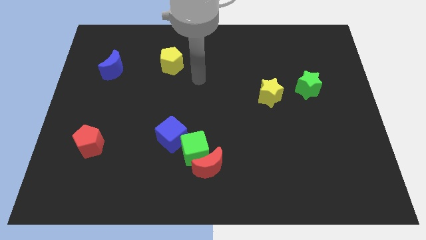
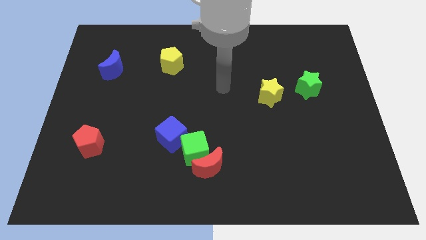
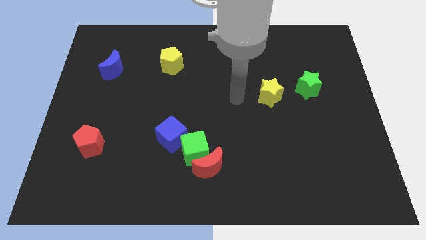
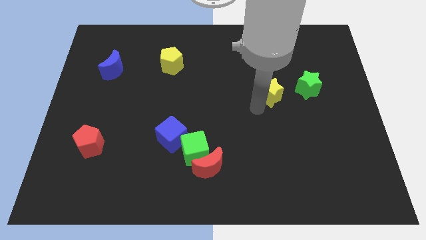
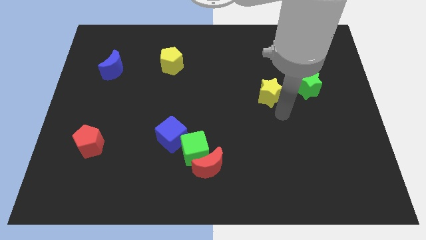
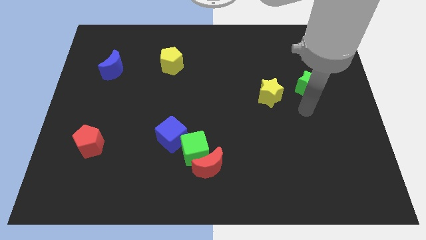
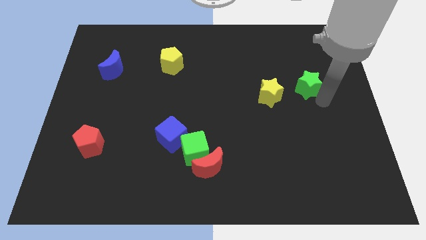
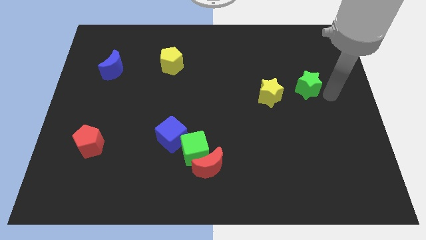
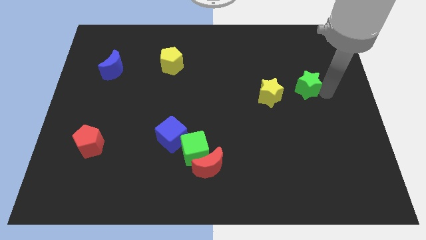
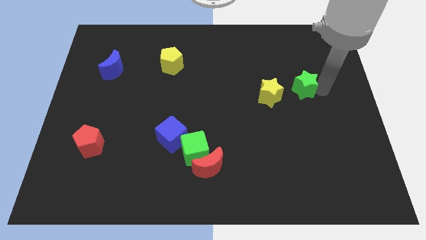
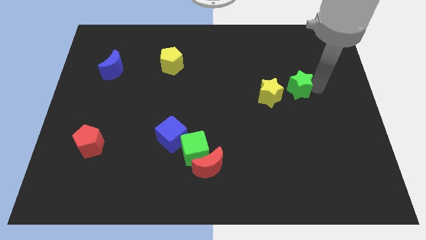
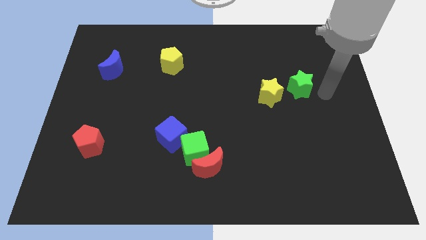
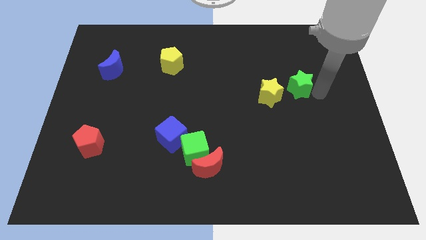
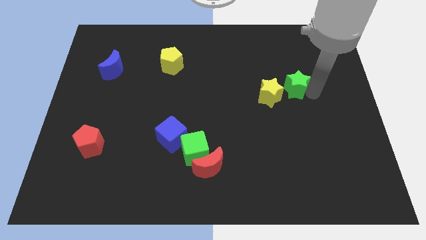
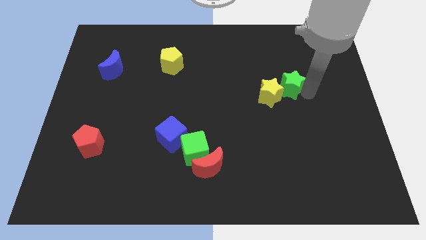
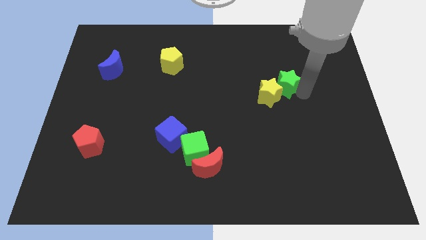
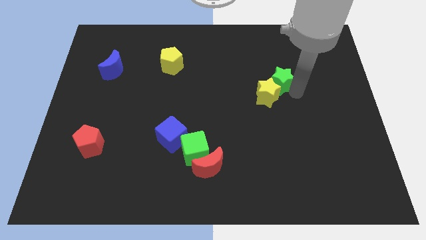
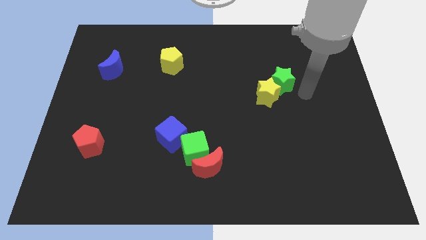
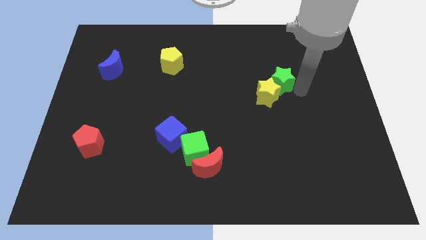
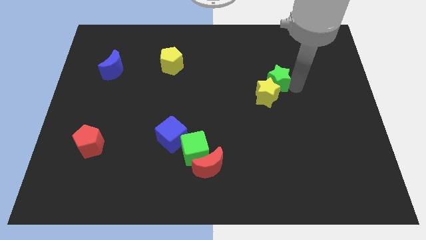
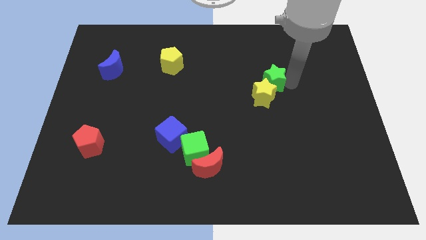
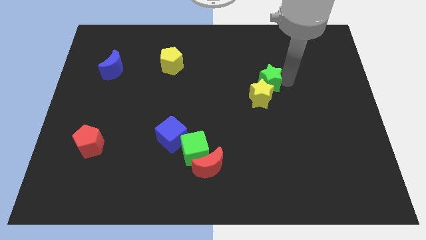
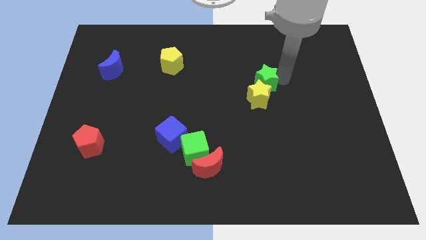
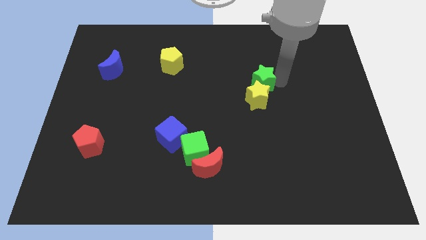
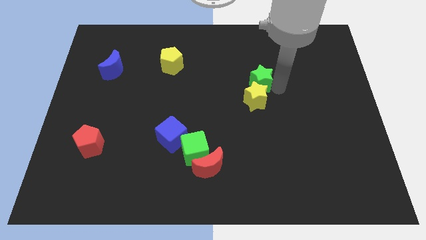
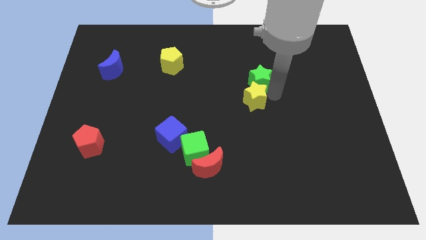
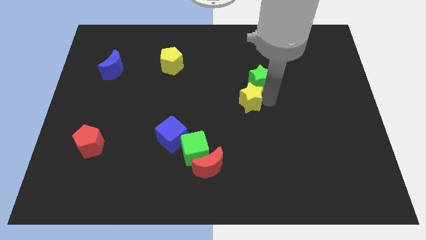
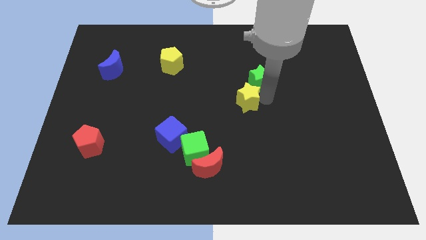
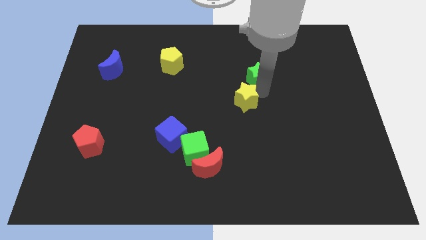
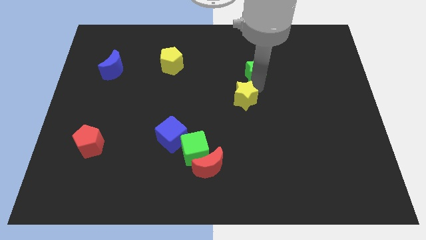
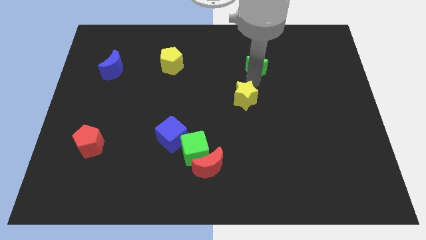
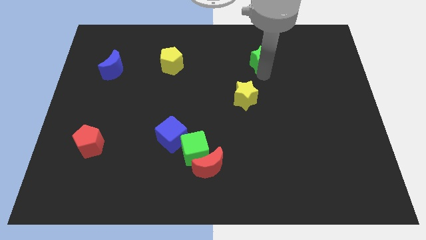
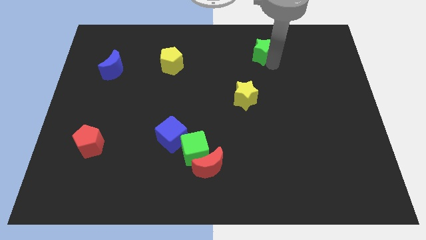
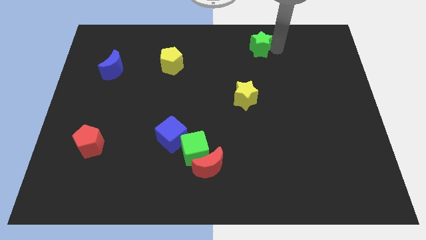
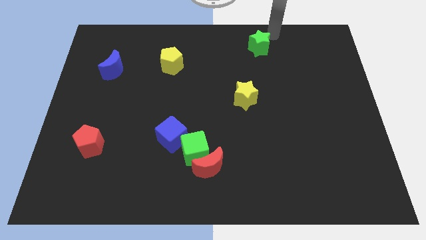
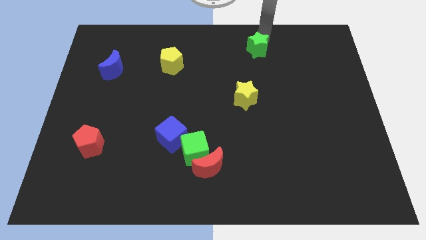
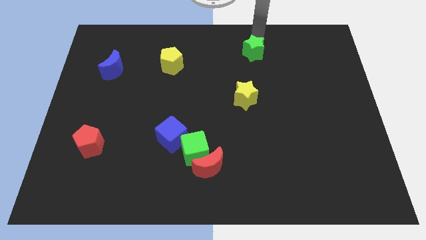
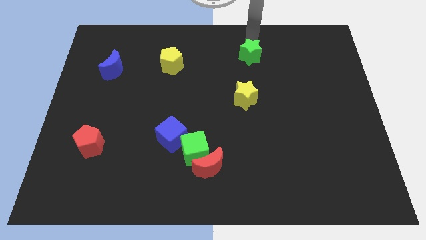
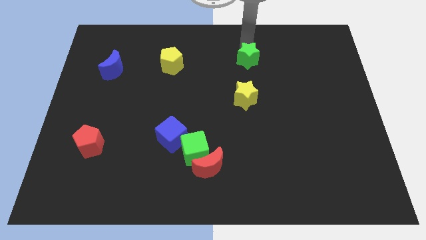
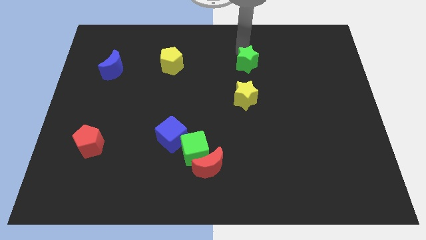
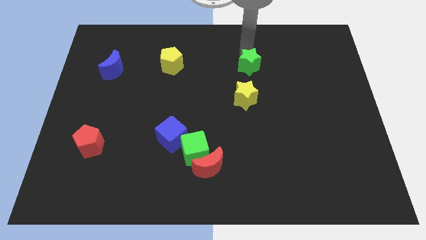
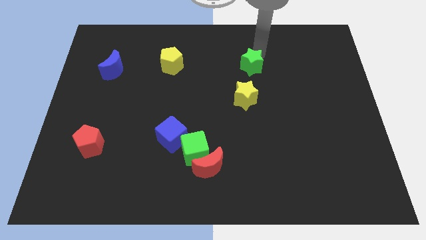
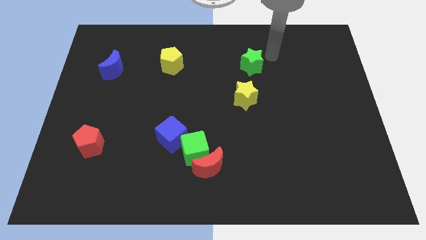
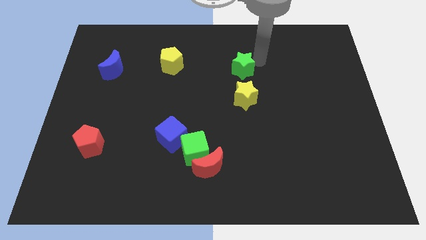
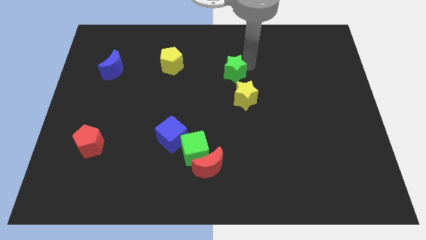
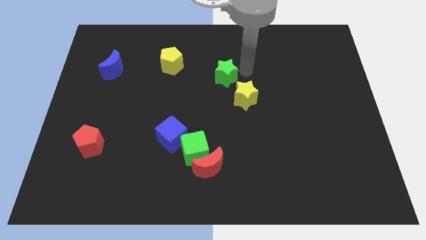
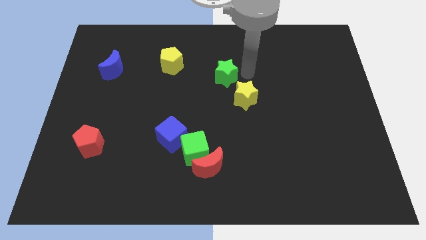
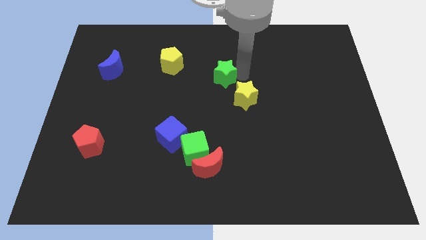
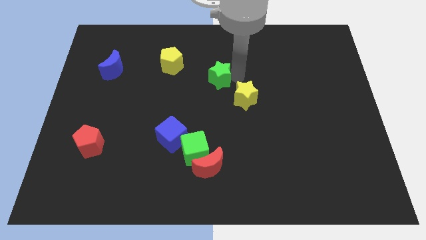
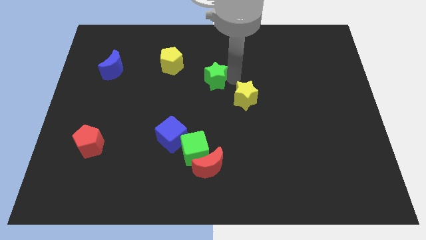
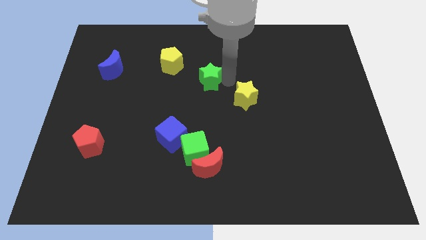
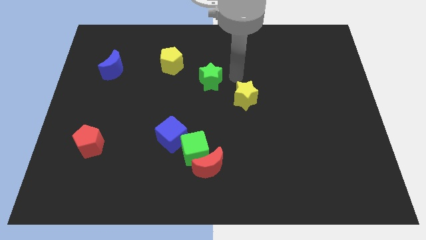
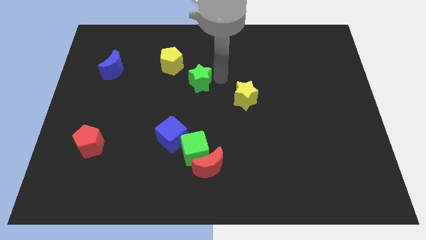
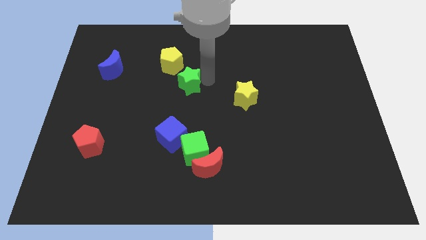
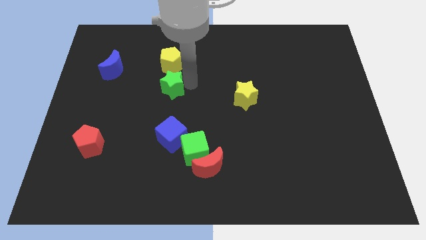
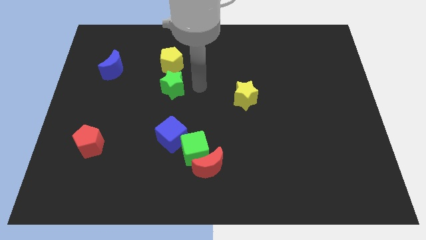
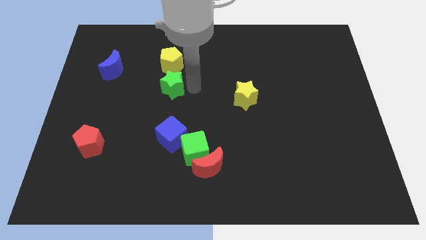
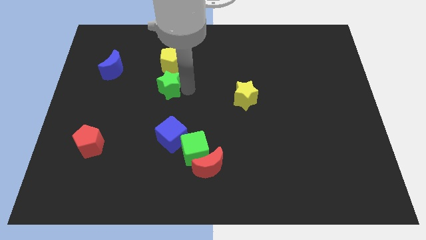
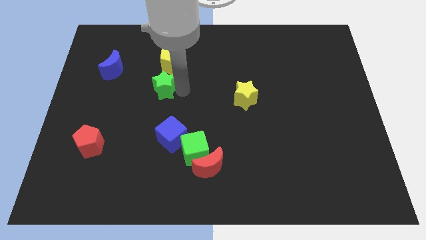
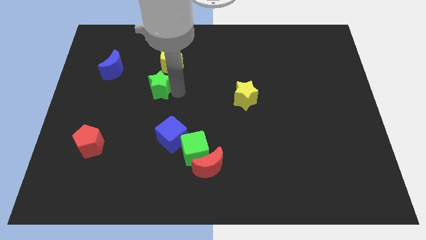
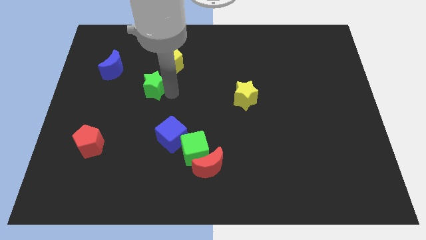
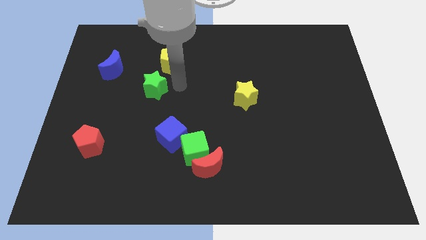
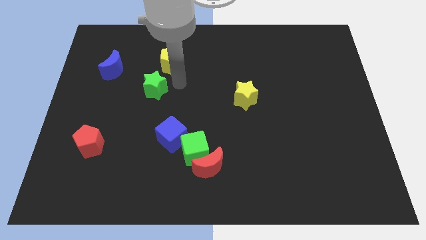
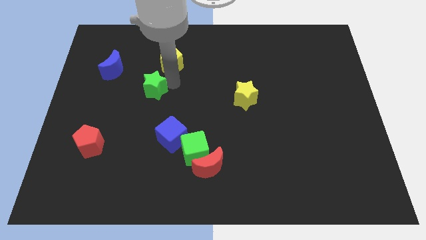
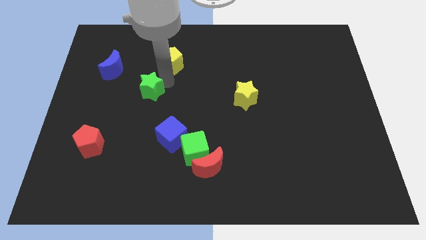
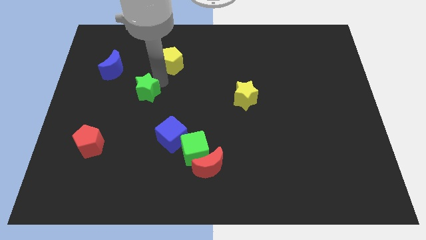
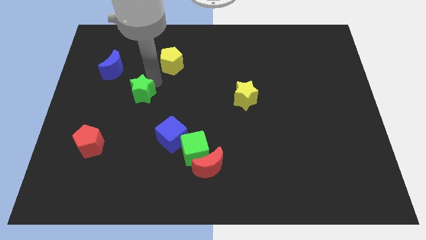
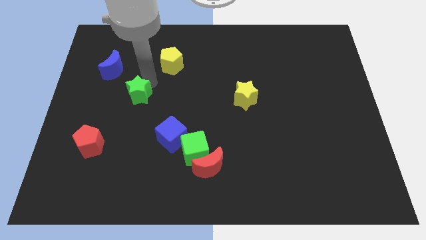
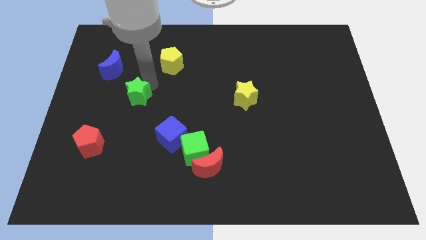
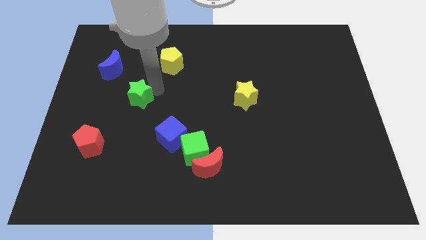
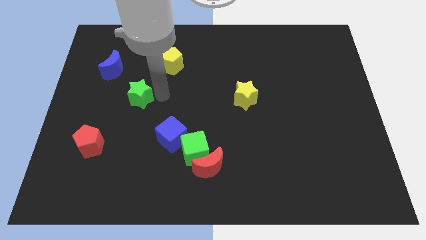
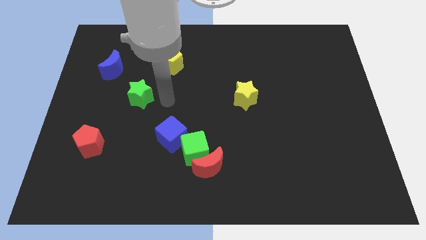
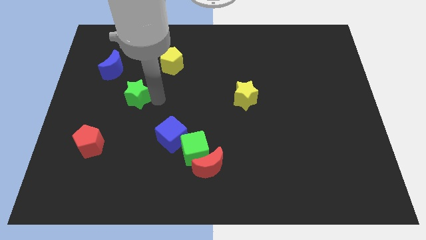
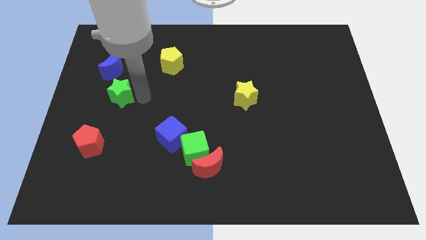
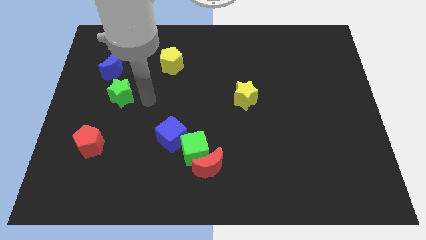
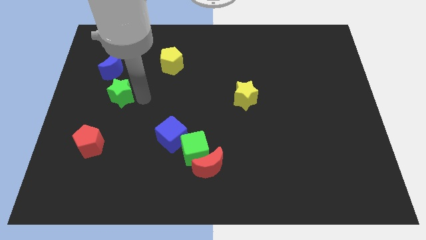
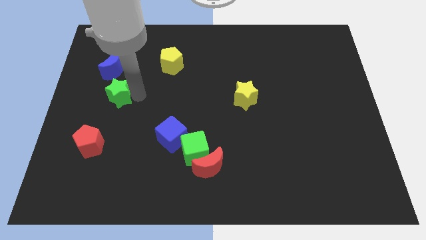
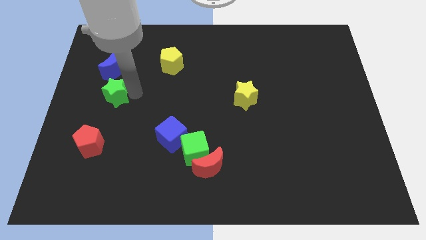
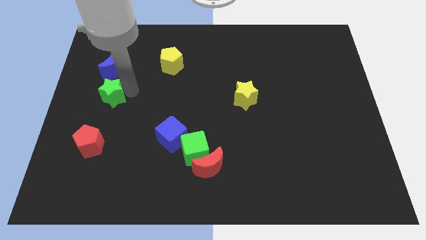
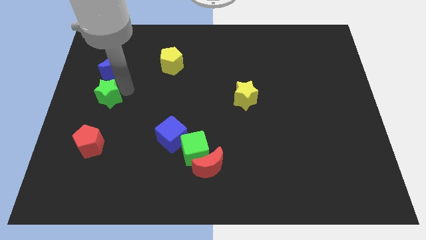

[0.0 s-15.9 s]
slide the green star to the center left
